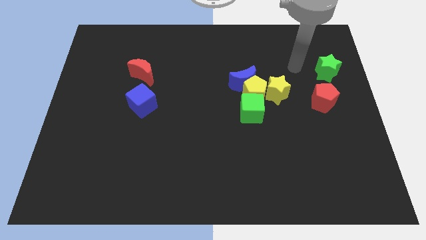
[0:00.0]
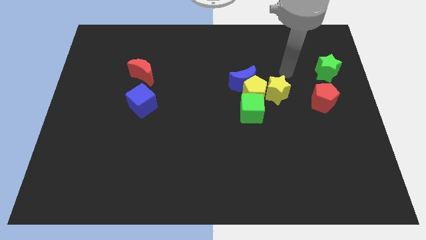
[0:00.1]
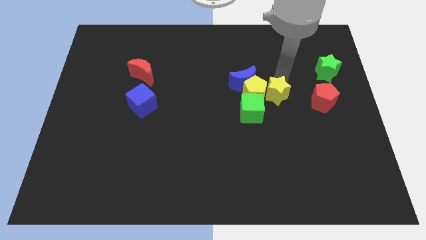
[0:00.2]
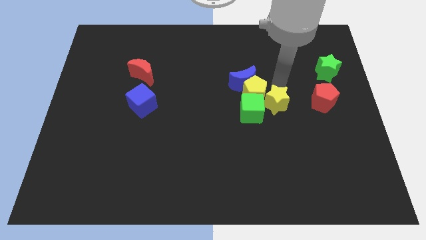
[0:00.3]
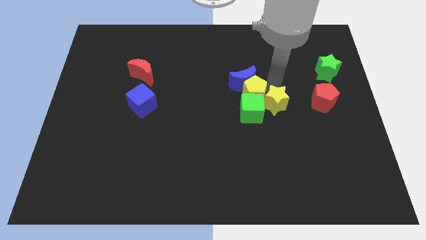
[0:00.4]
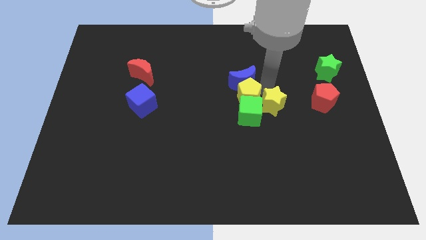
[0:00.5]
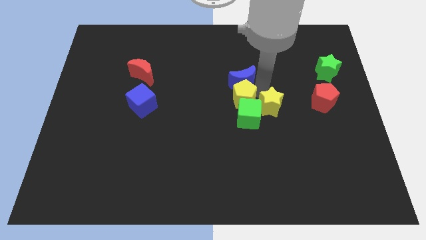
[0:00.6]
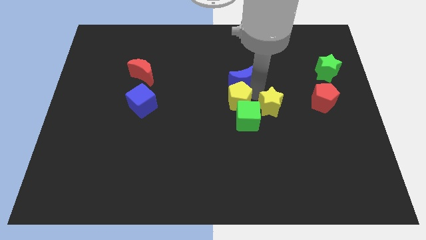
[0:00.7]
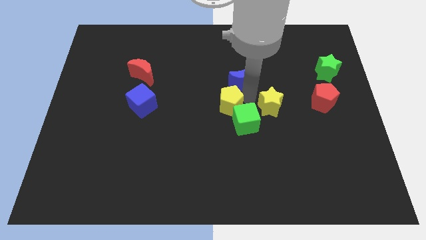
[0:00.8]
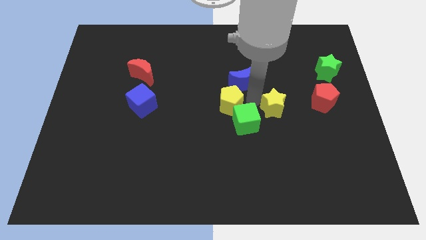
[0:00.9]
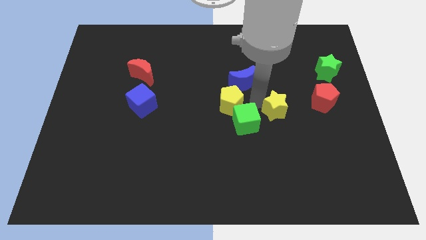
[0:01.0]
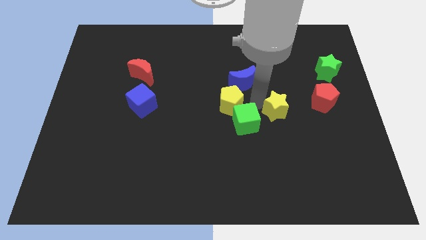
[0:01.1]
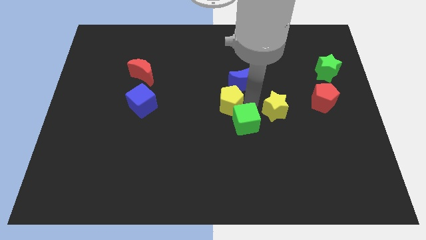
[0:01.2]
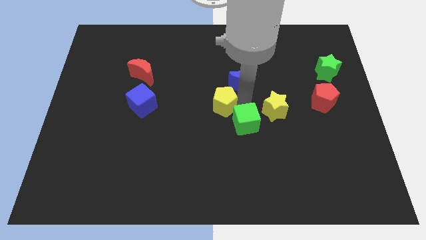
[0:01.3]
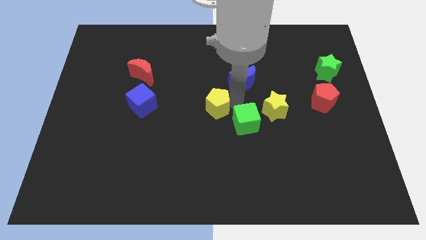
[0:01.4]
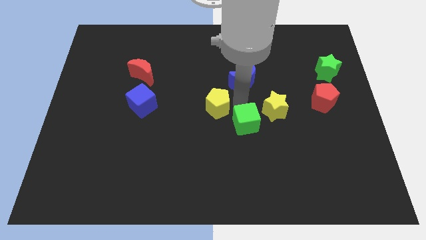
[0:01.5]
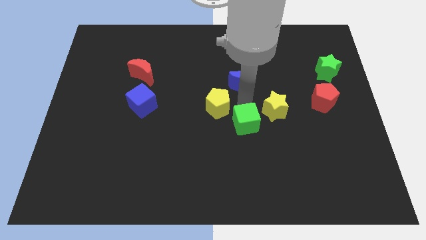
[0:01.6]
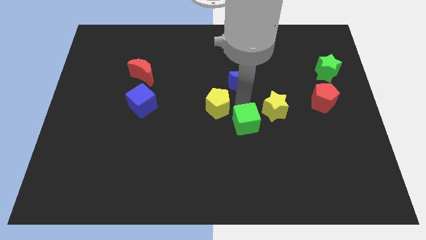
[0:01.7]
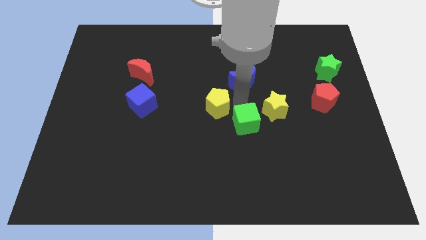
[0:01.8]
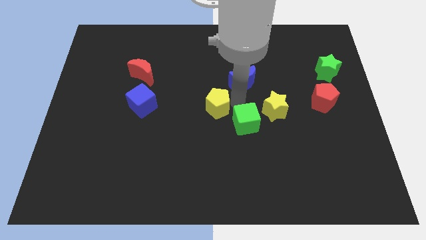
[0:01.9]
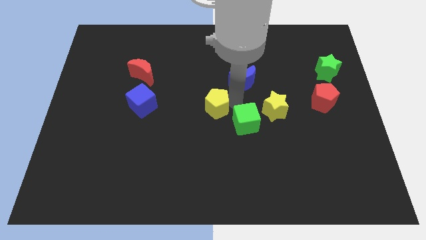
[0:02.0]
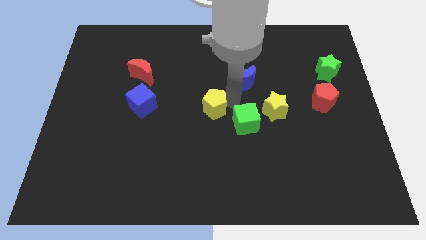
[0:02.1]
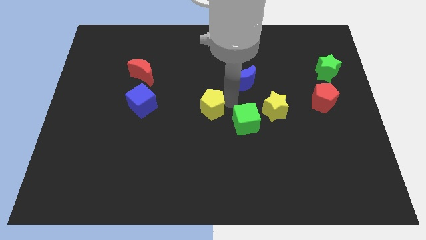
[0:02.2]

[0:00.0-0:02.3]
pull the yellow pentagon apart from the group of blocks

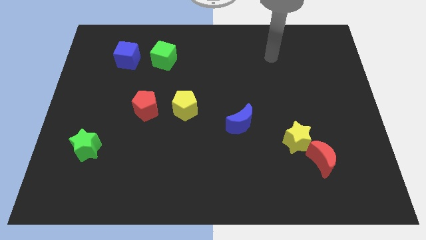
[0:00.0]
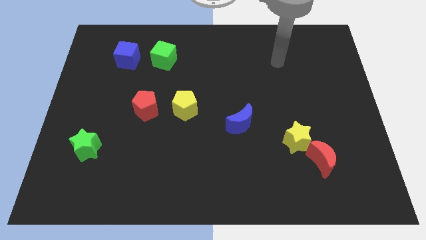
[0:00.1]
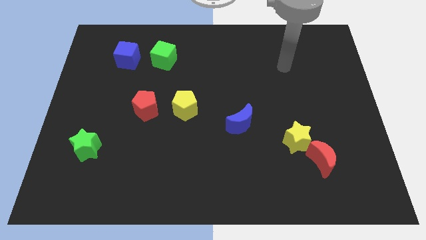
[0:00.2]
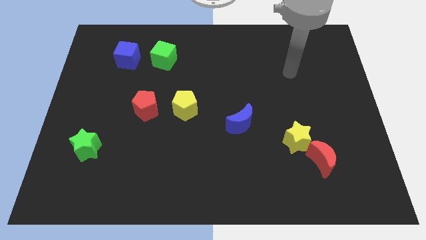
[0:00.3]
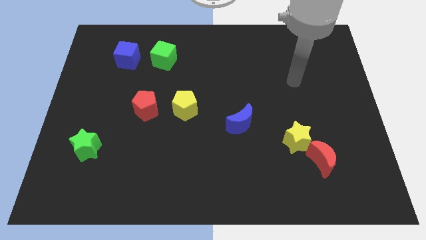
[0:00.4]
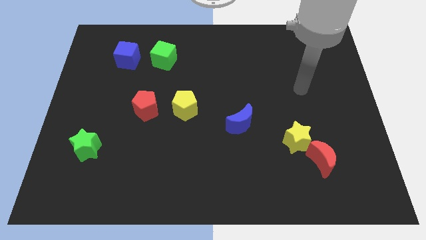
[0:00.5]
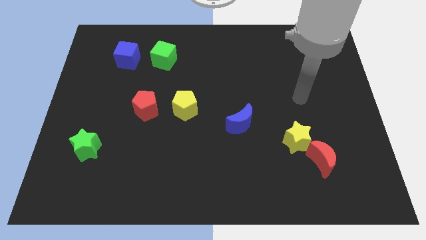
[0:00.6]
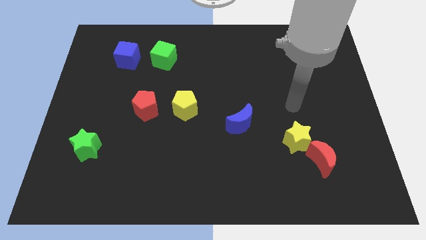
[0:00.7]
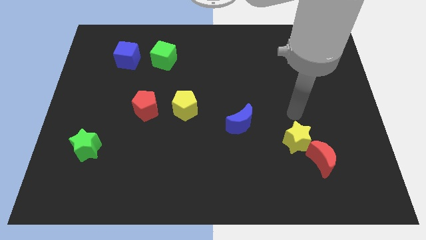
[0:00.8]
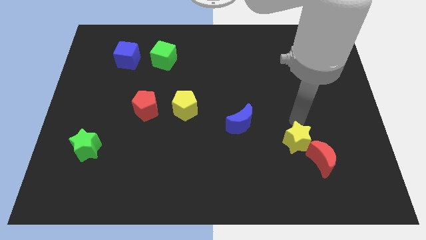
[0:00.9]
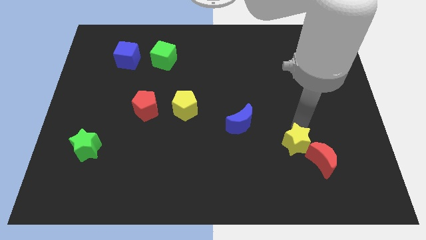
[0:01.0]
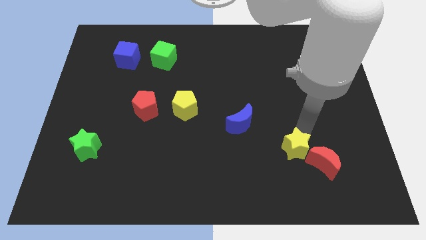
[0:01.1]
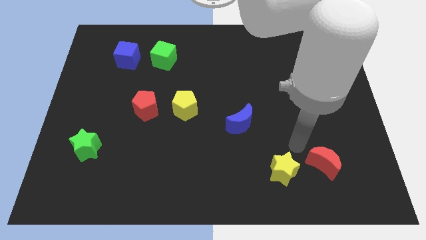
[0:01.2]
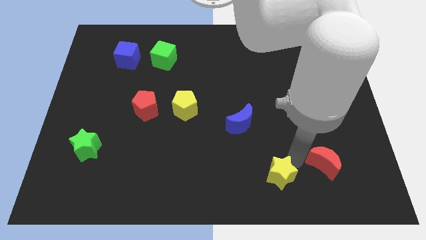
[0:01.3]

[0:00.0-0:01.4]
separate the red moon from the yellow star

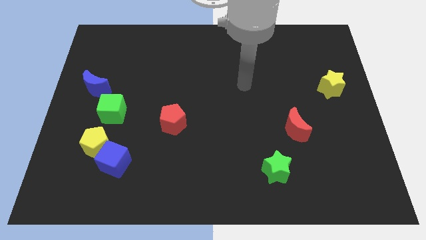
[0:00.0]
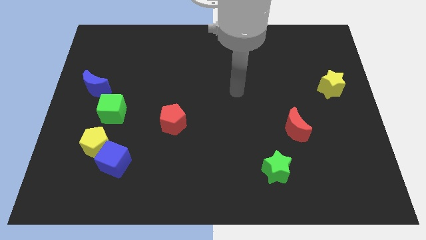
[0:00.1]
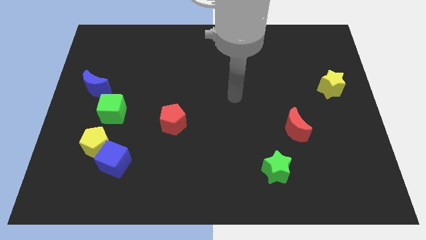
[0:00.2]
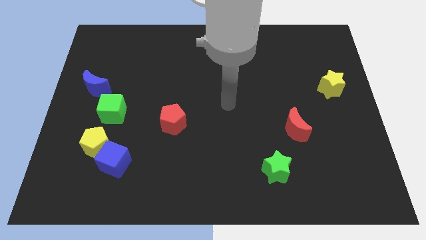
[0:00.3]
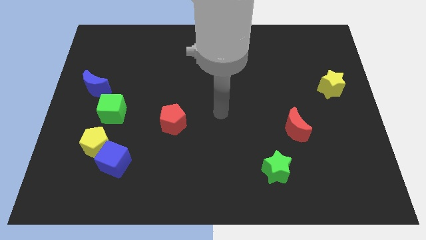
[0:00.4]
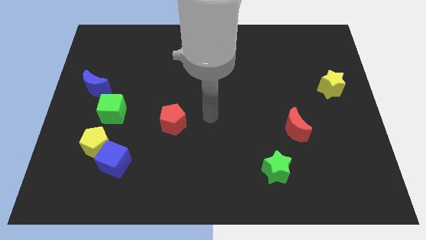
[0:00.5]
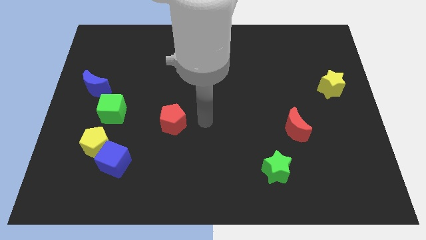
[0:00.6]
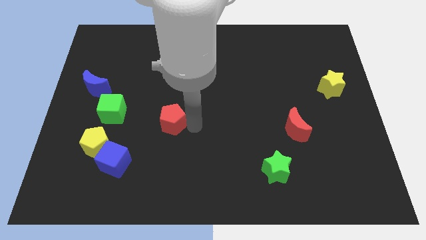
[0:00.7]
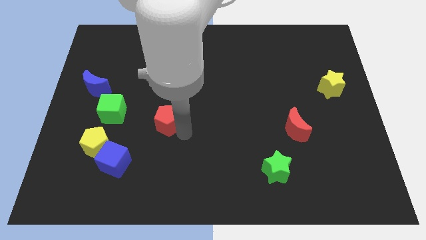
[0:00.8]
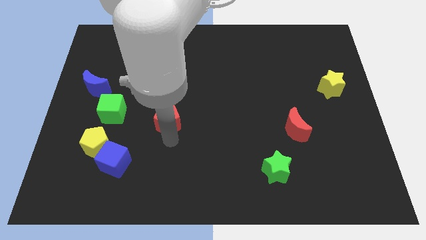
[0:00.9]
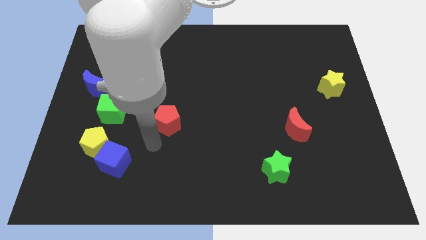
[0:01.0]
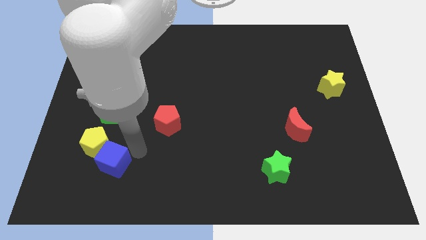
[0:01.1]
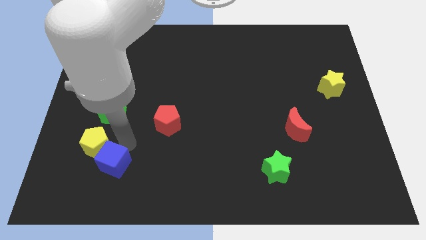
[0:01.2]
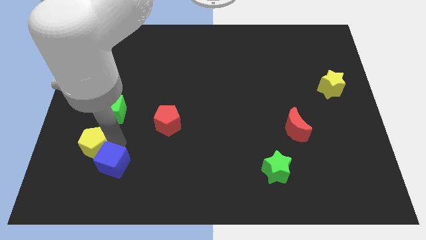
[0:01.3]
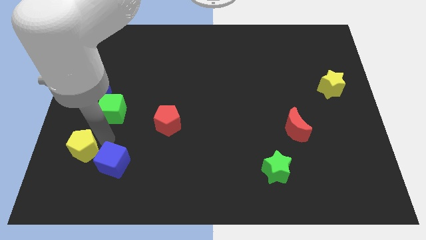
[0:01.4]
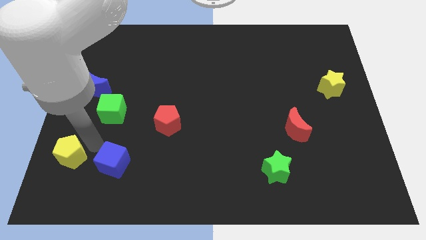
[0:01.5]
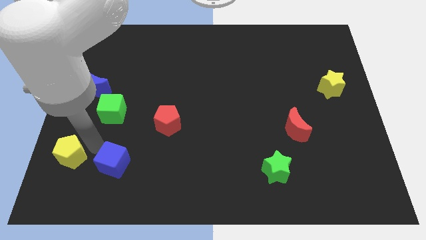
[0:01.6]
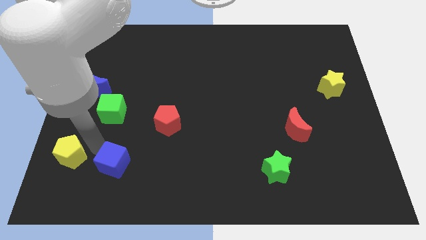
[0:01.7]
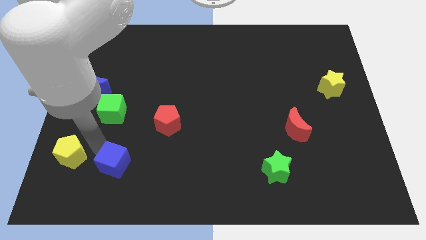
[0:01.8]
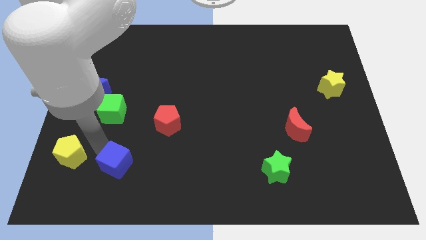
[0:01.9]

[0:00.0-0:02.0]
pull the blue cube apart from the yellow pentagon

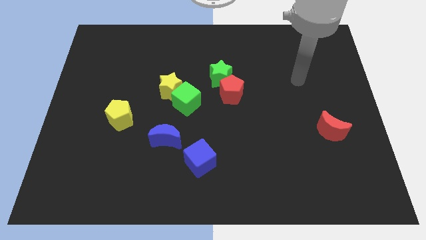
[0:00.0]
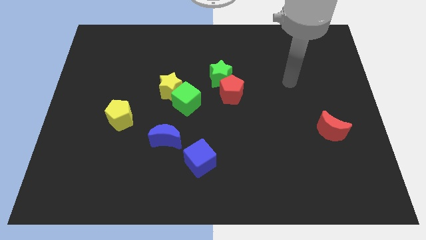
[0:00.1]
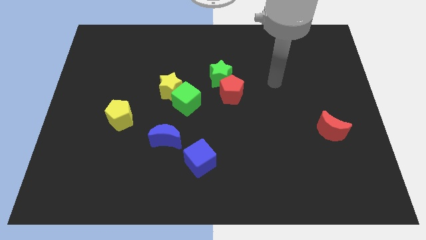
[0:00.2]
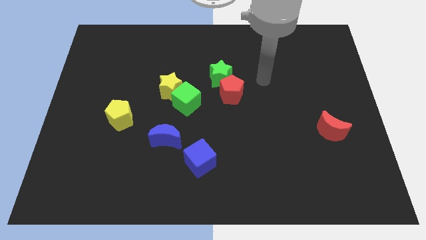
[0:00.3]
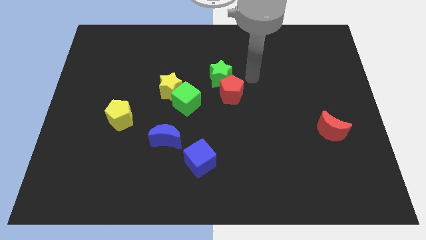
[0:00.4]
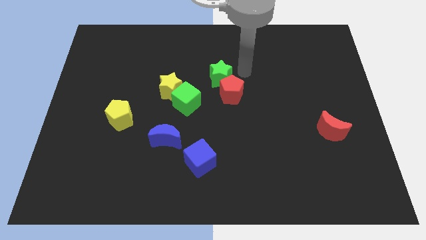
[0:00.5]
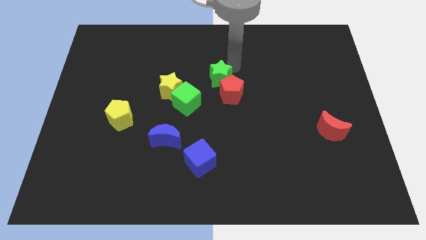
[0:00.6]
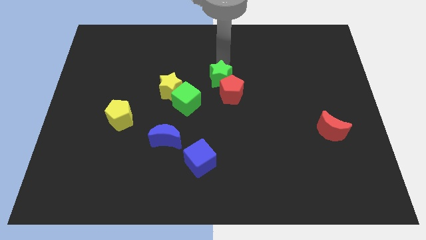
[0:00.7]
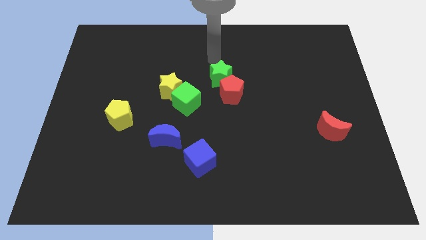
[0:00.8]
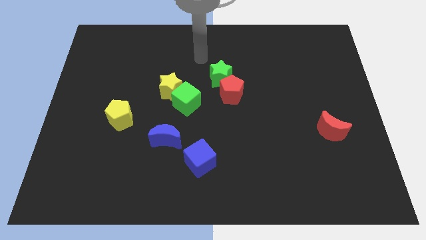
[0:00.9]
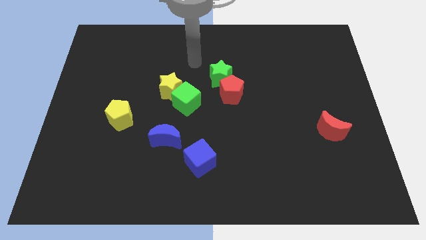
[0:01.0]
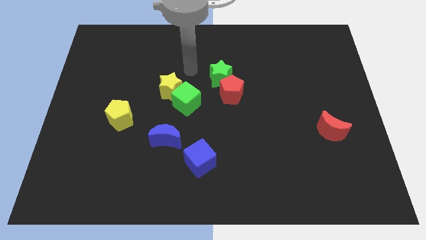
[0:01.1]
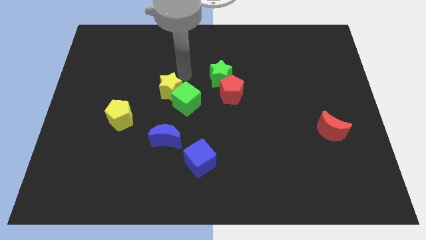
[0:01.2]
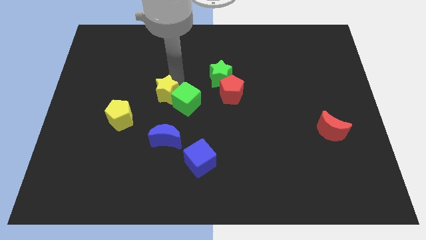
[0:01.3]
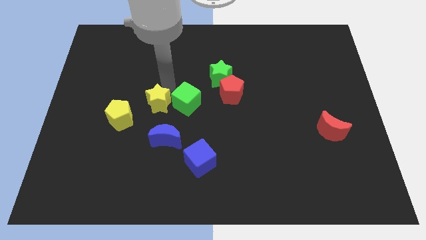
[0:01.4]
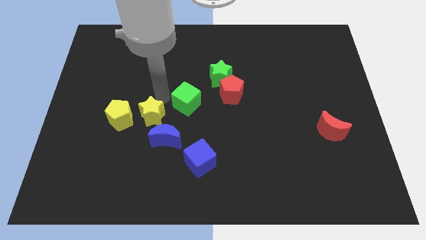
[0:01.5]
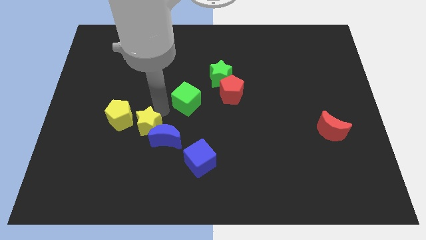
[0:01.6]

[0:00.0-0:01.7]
move the green cube away from the yellow star

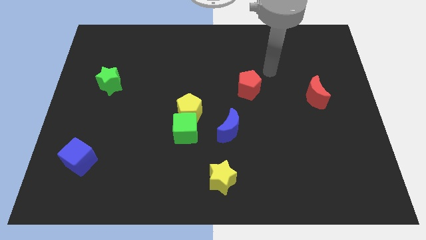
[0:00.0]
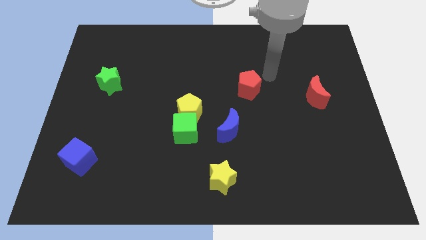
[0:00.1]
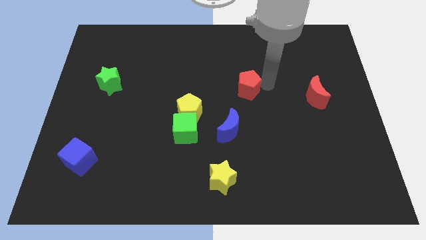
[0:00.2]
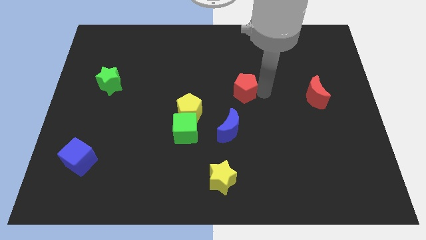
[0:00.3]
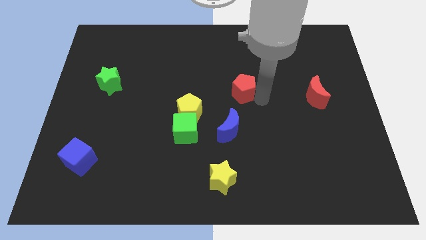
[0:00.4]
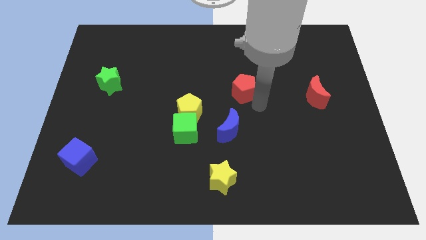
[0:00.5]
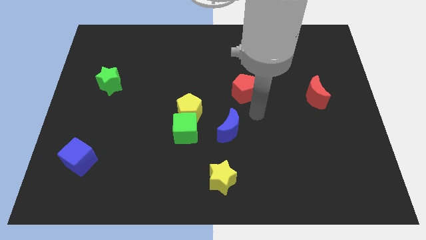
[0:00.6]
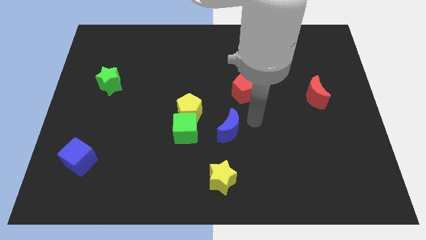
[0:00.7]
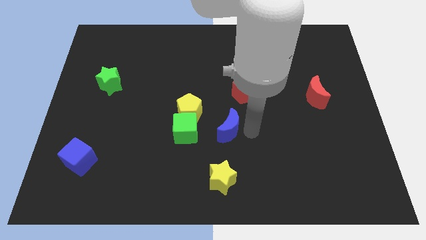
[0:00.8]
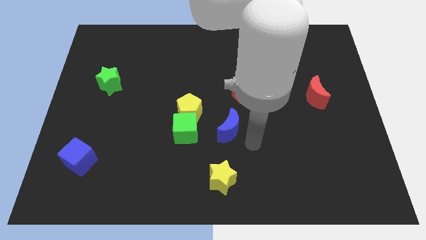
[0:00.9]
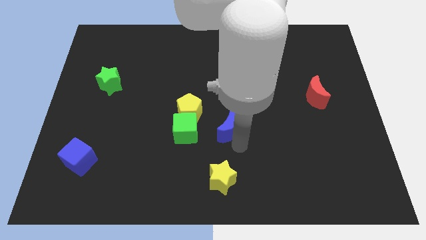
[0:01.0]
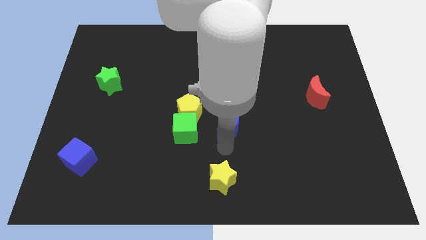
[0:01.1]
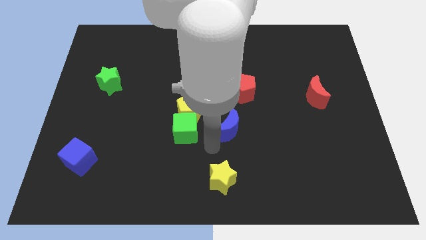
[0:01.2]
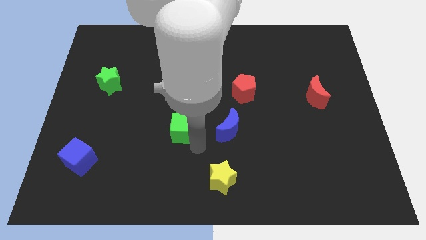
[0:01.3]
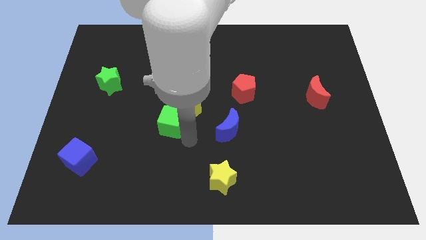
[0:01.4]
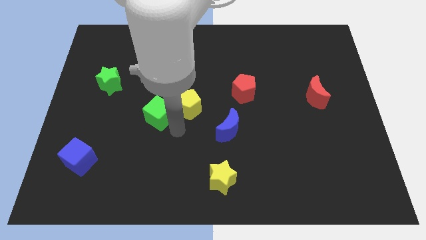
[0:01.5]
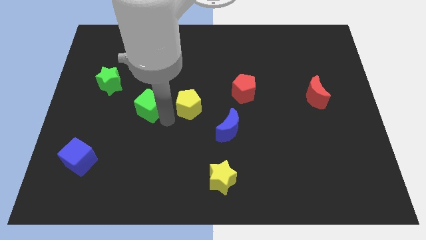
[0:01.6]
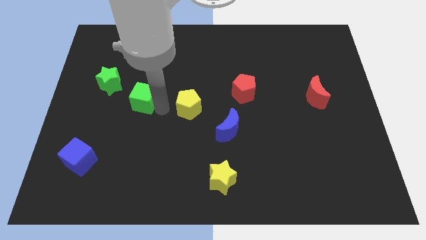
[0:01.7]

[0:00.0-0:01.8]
move the yellow pentagon away from the green cube
